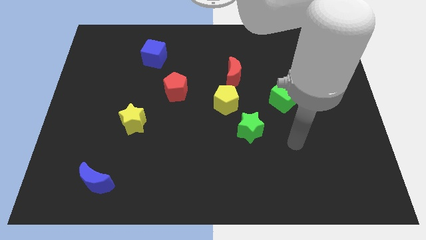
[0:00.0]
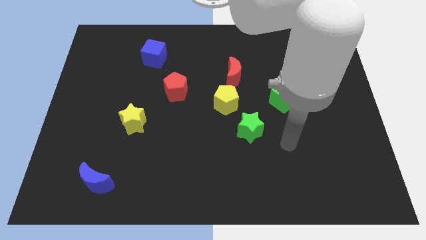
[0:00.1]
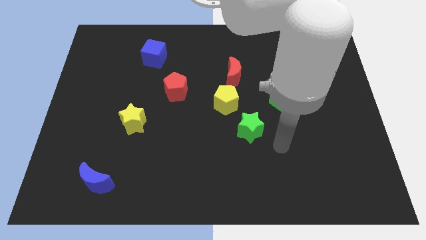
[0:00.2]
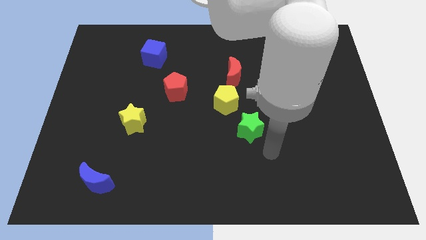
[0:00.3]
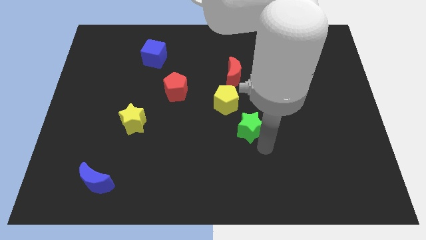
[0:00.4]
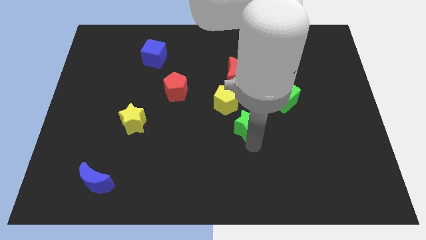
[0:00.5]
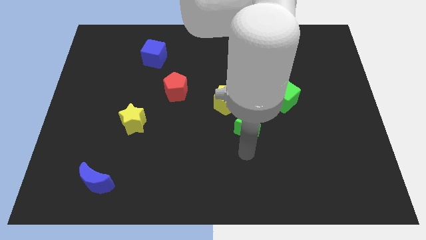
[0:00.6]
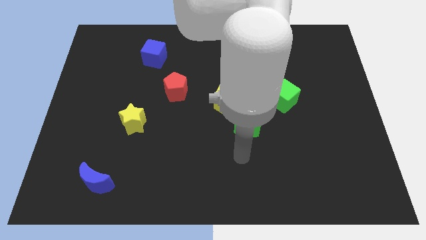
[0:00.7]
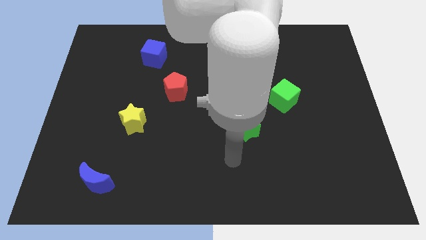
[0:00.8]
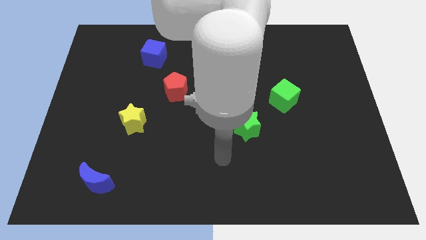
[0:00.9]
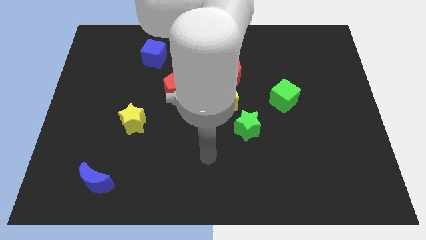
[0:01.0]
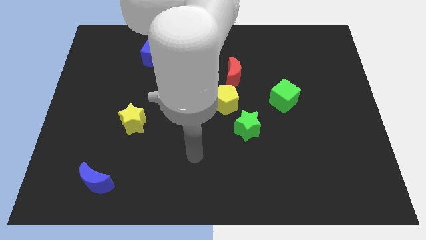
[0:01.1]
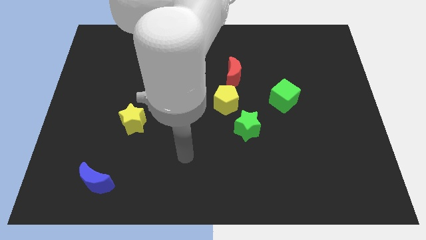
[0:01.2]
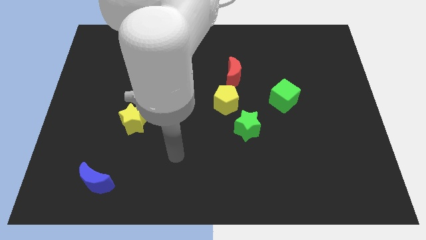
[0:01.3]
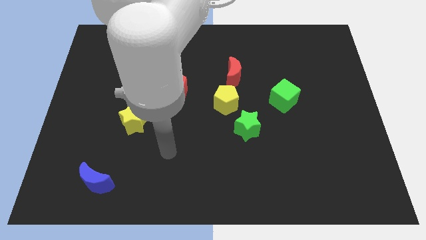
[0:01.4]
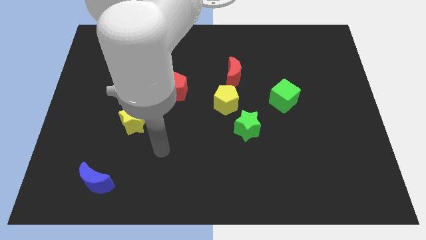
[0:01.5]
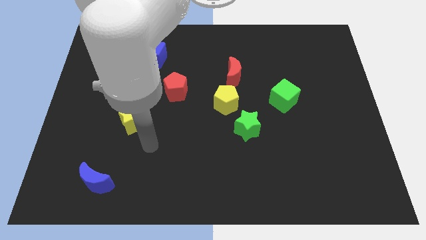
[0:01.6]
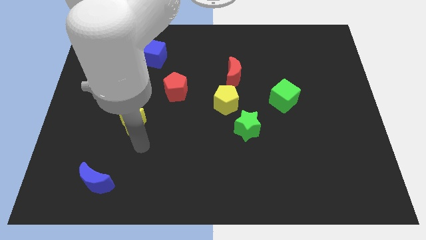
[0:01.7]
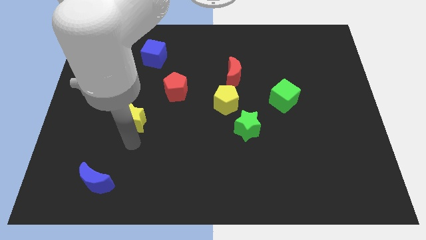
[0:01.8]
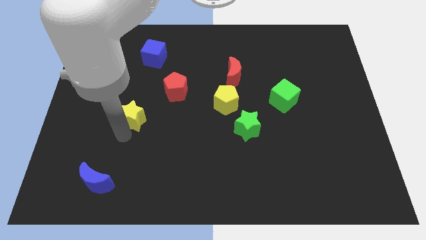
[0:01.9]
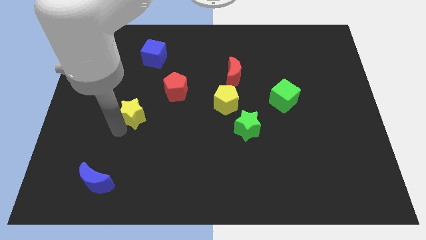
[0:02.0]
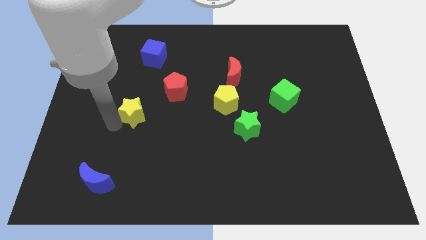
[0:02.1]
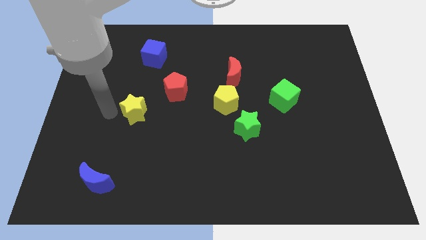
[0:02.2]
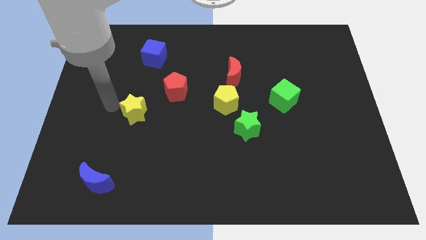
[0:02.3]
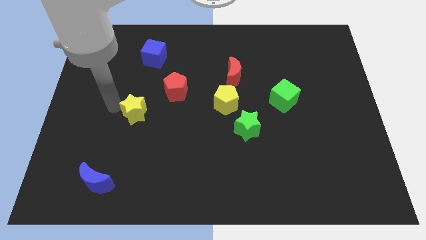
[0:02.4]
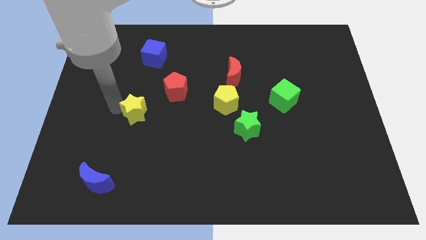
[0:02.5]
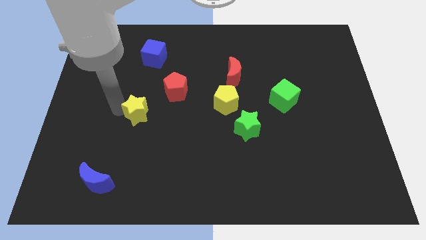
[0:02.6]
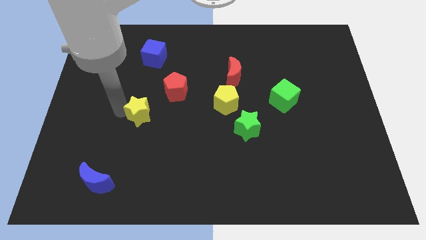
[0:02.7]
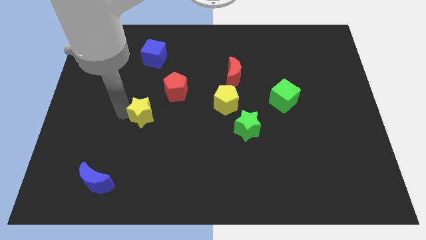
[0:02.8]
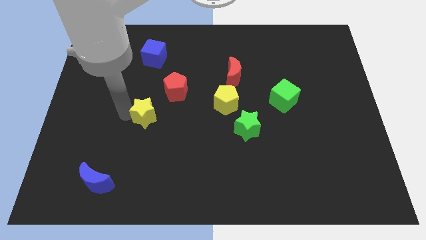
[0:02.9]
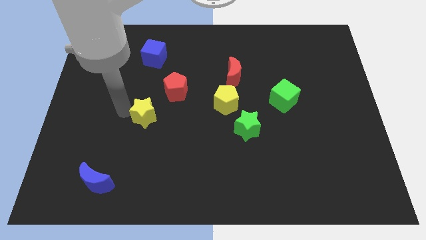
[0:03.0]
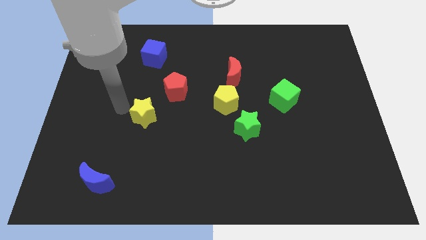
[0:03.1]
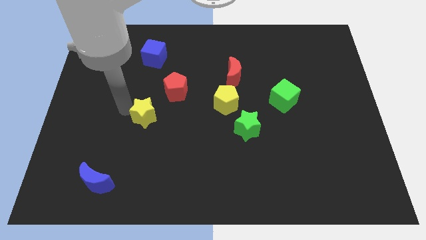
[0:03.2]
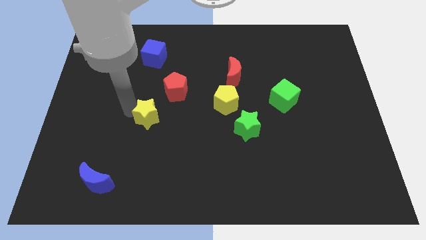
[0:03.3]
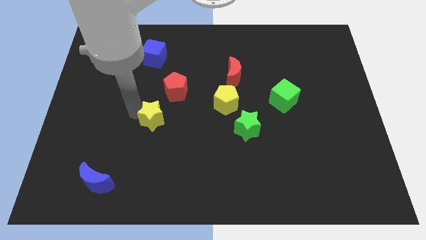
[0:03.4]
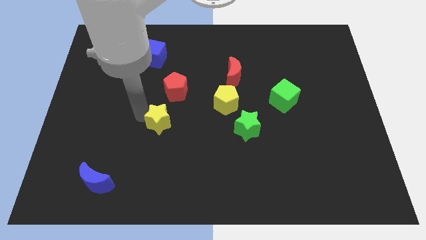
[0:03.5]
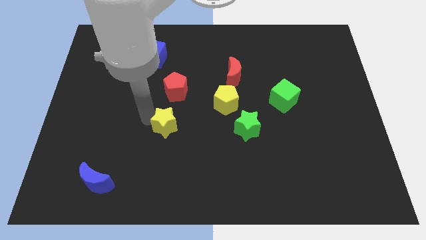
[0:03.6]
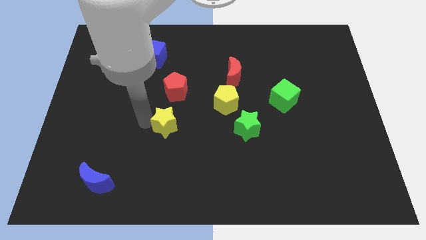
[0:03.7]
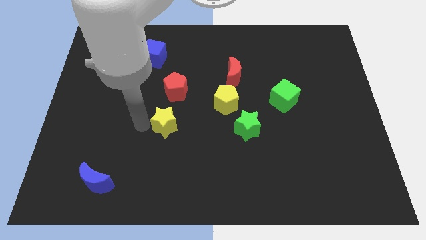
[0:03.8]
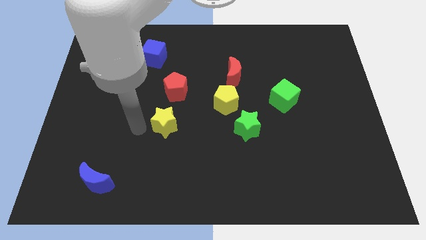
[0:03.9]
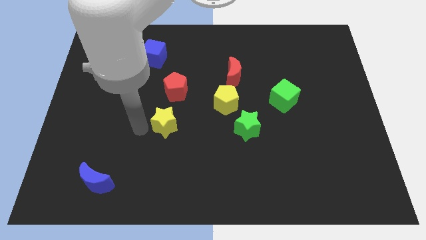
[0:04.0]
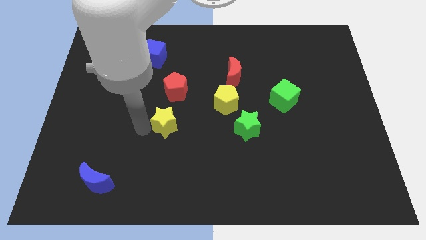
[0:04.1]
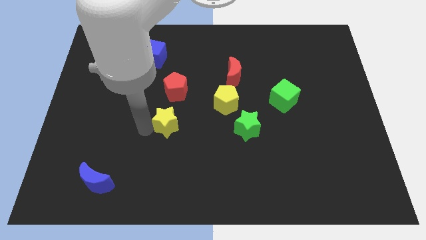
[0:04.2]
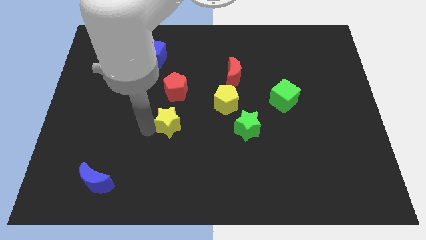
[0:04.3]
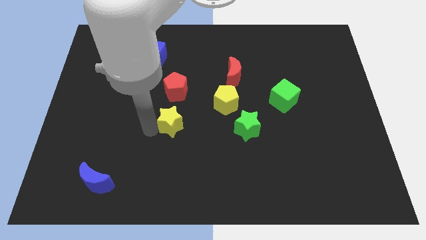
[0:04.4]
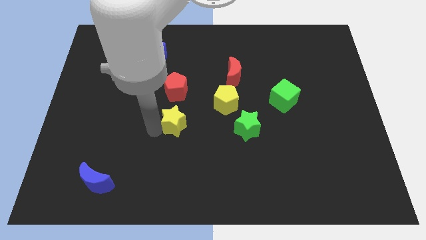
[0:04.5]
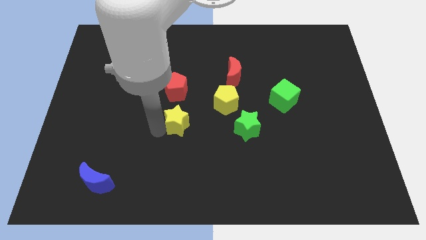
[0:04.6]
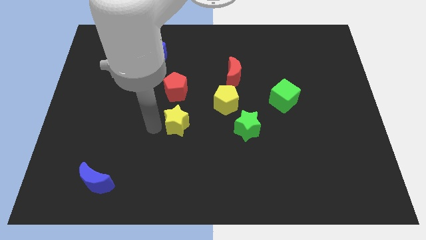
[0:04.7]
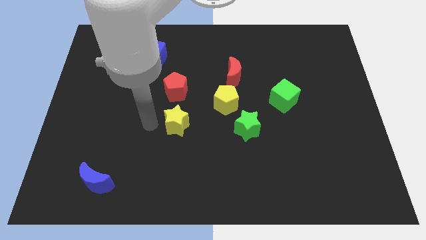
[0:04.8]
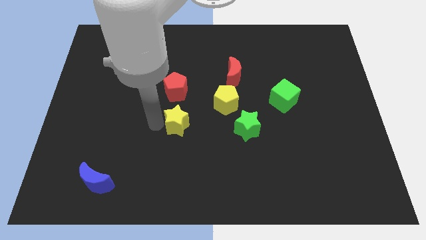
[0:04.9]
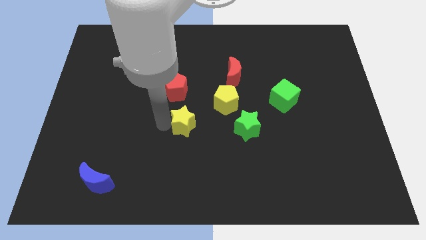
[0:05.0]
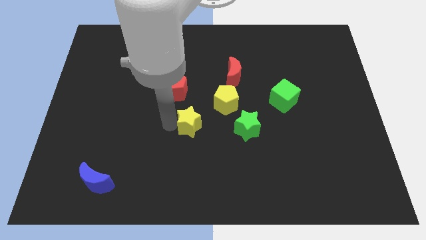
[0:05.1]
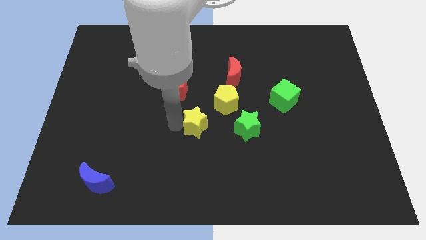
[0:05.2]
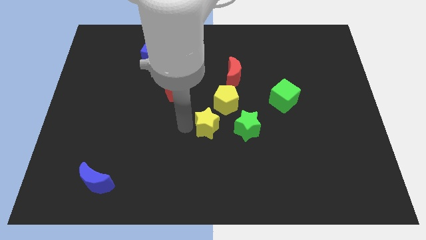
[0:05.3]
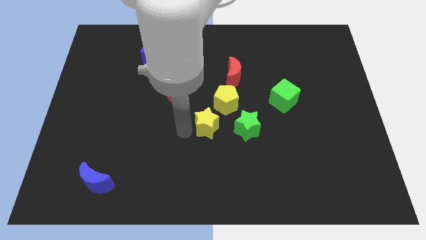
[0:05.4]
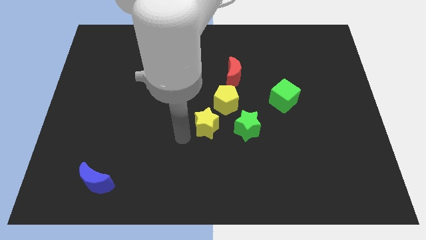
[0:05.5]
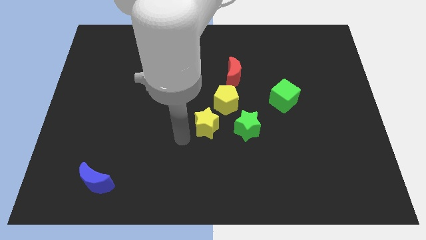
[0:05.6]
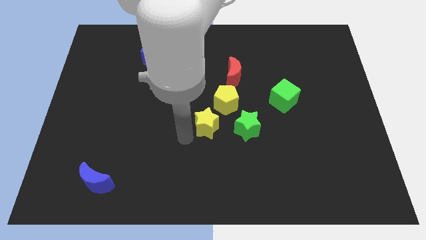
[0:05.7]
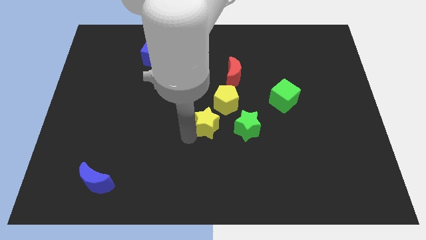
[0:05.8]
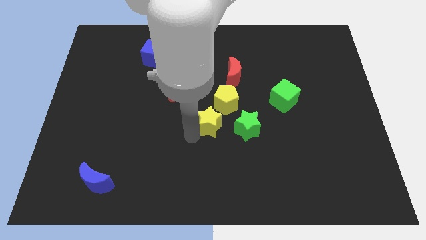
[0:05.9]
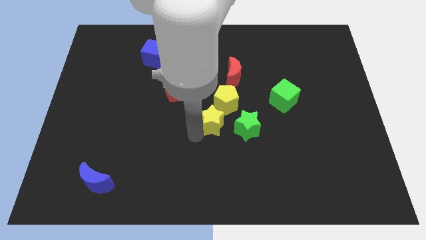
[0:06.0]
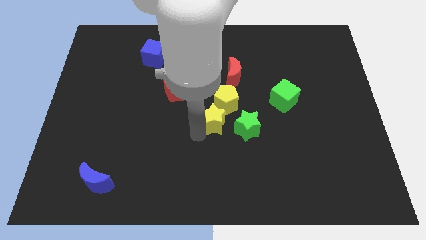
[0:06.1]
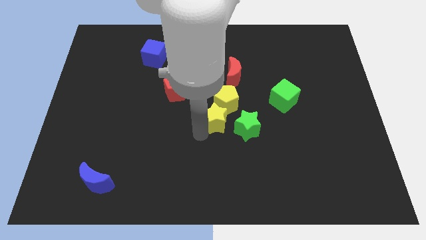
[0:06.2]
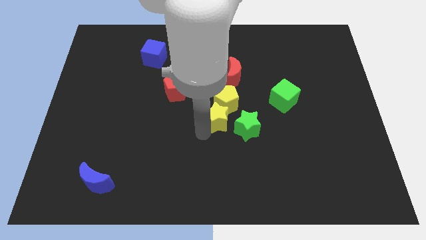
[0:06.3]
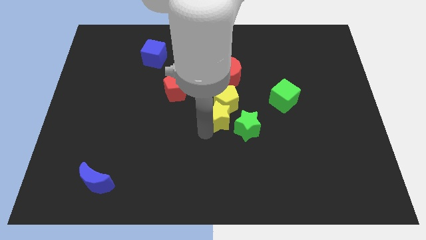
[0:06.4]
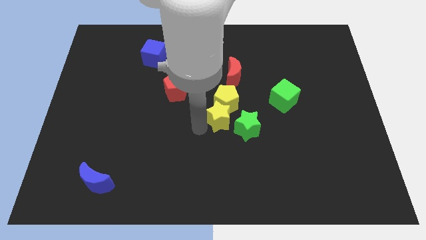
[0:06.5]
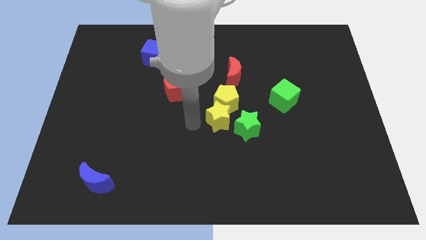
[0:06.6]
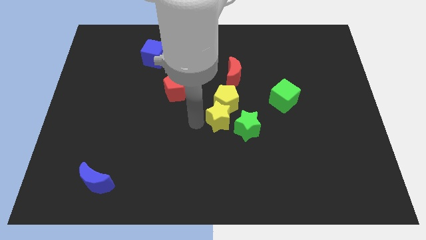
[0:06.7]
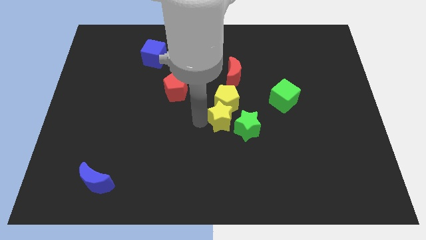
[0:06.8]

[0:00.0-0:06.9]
push the yellow star to the right

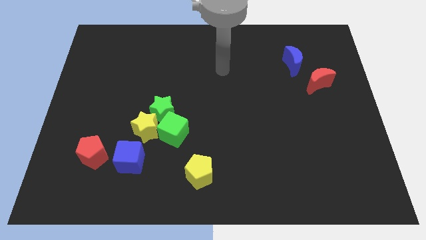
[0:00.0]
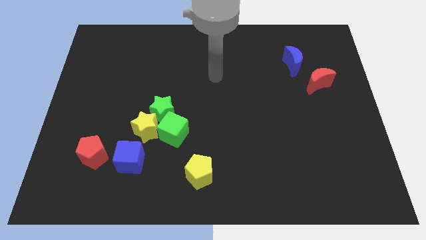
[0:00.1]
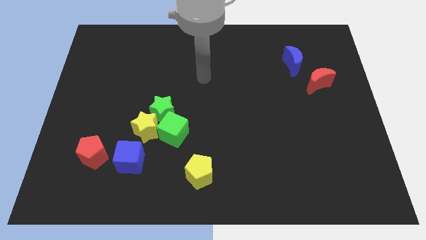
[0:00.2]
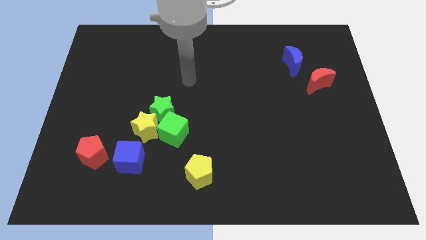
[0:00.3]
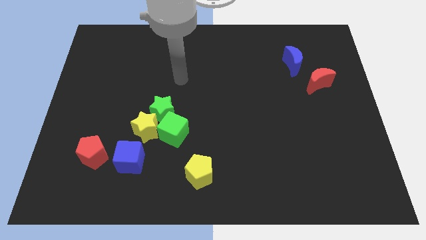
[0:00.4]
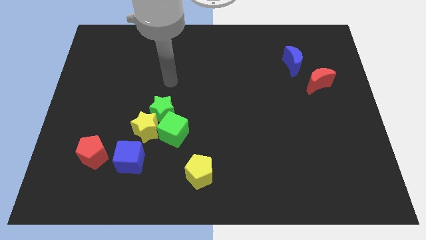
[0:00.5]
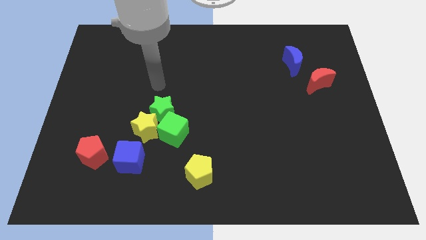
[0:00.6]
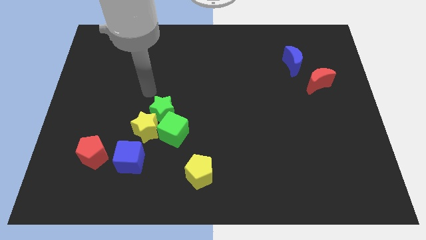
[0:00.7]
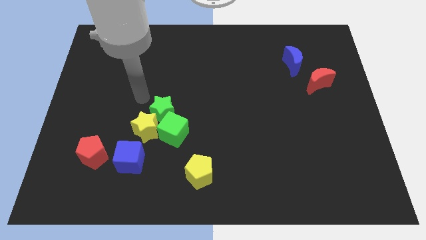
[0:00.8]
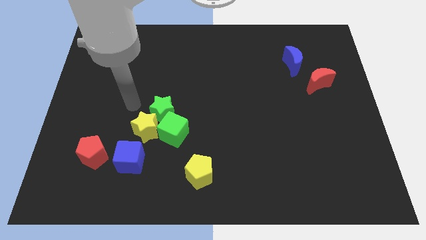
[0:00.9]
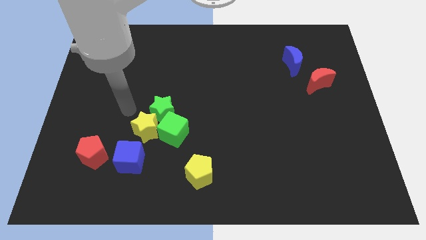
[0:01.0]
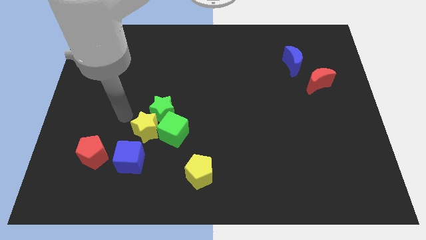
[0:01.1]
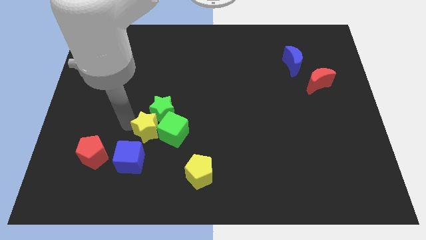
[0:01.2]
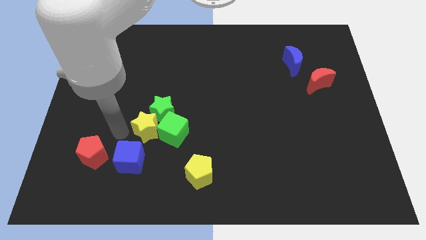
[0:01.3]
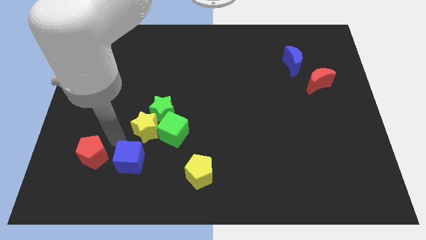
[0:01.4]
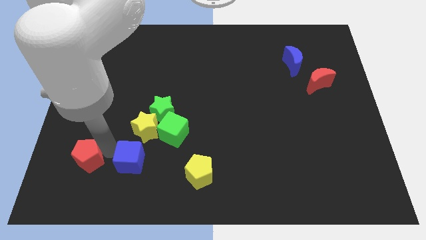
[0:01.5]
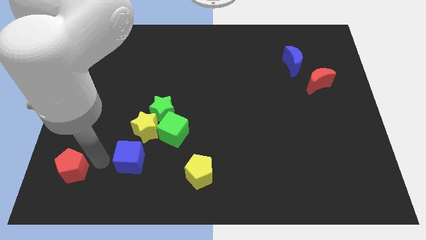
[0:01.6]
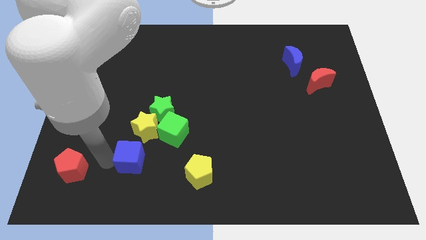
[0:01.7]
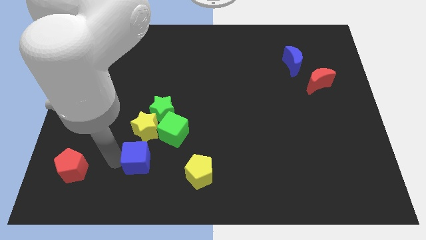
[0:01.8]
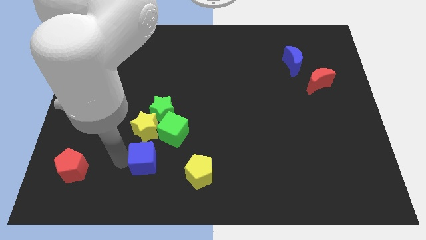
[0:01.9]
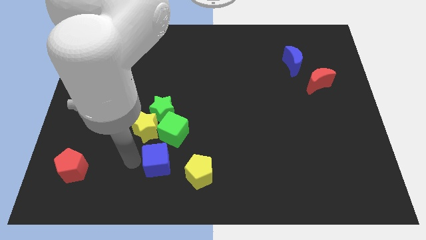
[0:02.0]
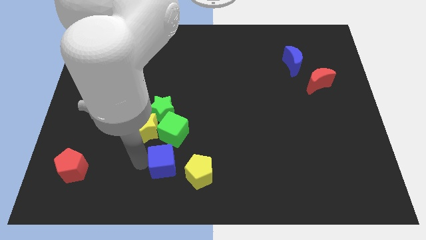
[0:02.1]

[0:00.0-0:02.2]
slightly slide the blue cube to the right
